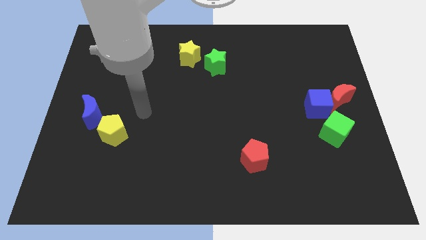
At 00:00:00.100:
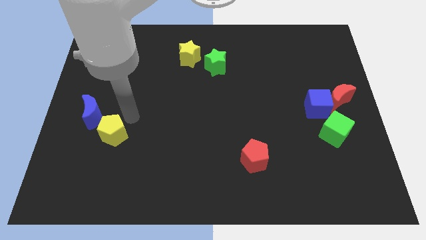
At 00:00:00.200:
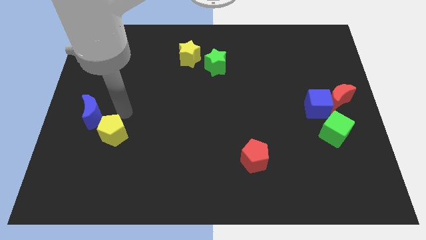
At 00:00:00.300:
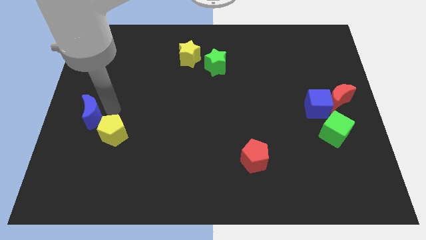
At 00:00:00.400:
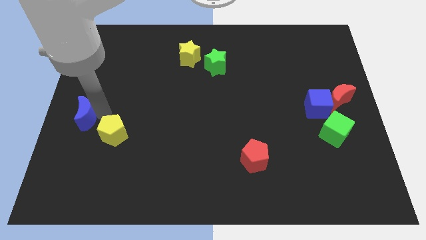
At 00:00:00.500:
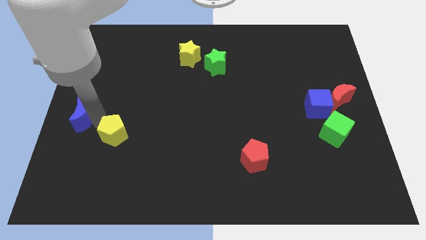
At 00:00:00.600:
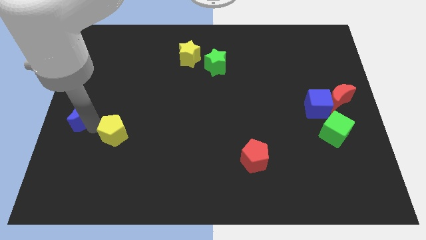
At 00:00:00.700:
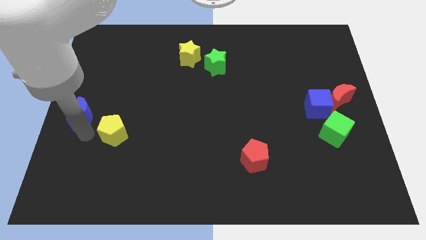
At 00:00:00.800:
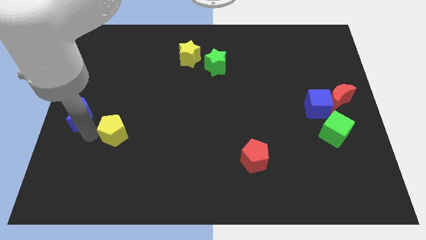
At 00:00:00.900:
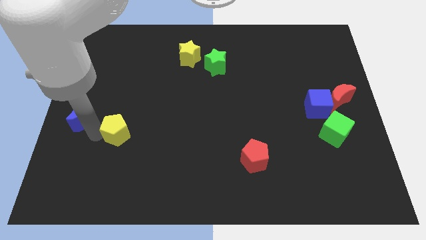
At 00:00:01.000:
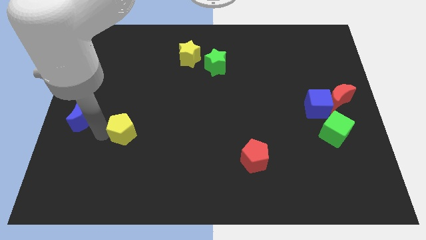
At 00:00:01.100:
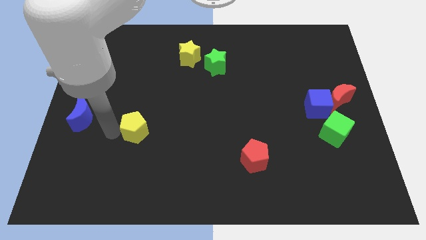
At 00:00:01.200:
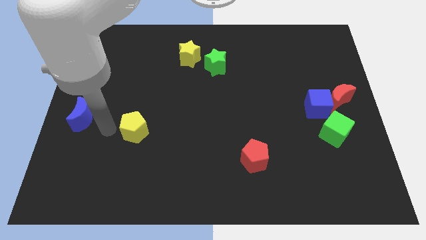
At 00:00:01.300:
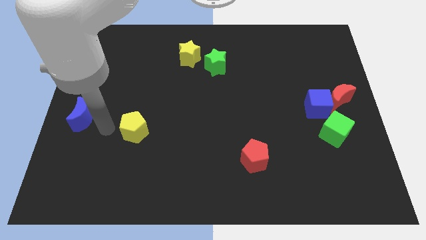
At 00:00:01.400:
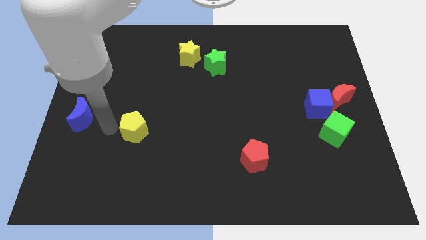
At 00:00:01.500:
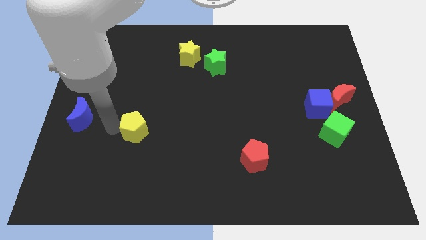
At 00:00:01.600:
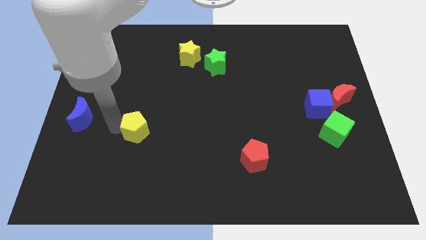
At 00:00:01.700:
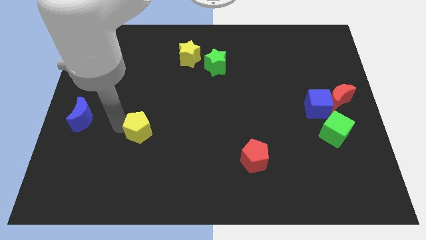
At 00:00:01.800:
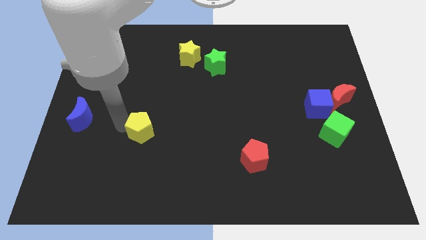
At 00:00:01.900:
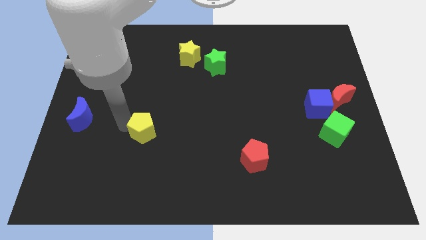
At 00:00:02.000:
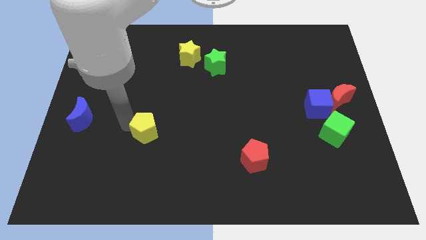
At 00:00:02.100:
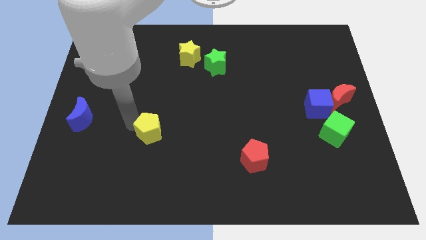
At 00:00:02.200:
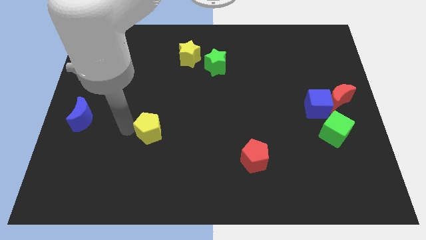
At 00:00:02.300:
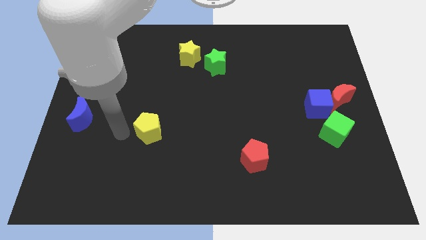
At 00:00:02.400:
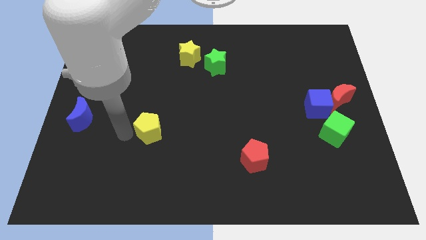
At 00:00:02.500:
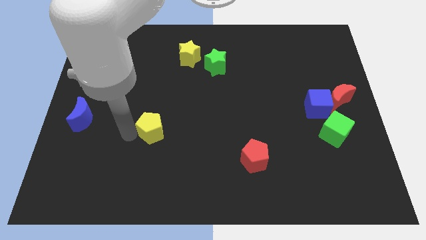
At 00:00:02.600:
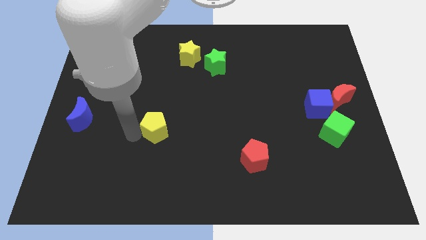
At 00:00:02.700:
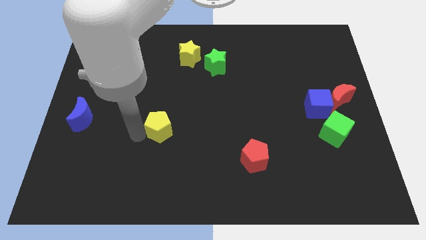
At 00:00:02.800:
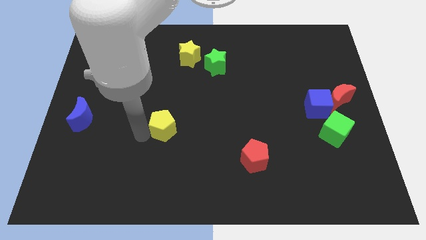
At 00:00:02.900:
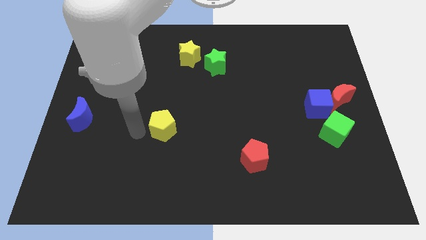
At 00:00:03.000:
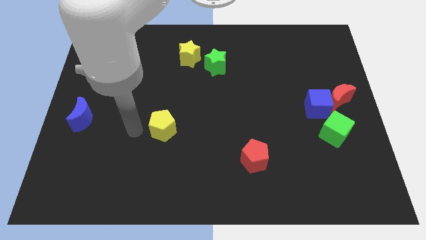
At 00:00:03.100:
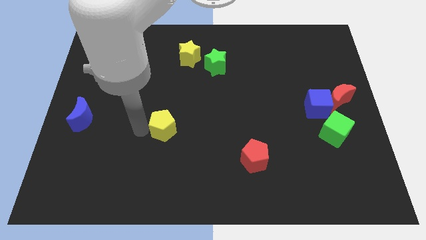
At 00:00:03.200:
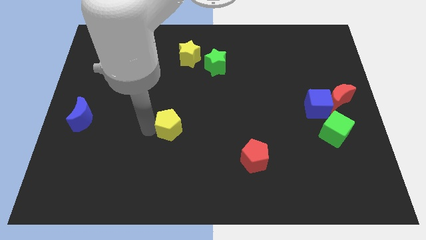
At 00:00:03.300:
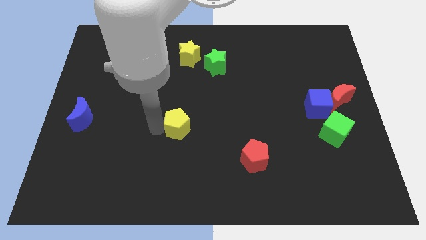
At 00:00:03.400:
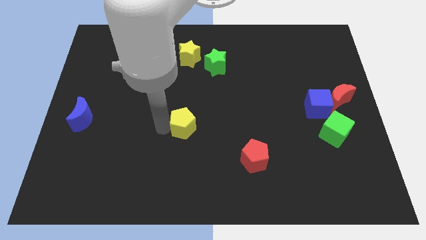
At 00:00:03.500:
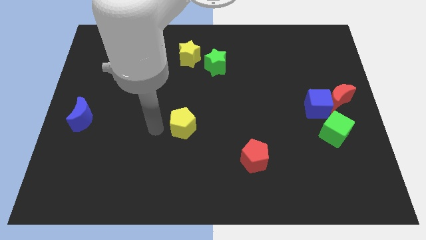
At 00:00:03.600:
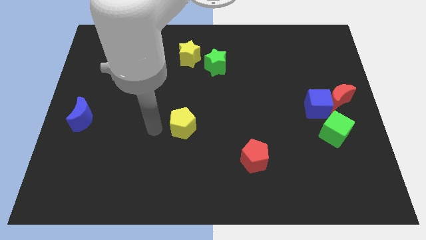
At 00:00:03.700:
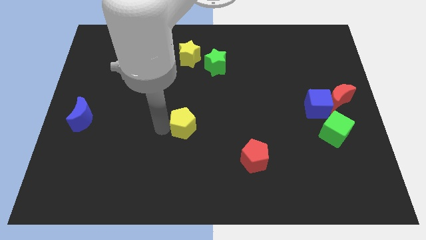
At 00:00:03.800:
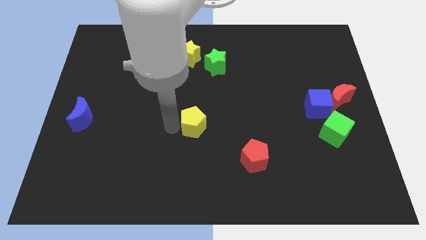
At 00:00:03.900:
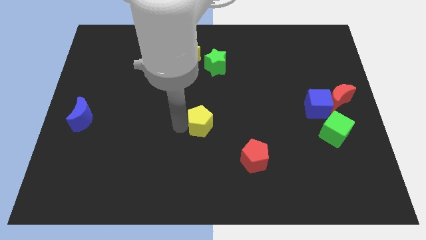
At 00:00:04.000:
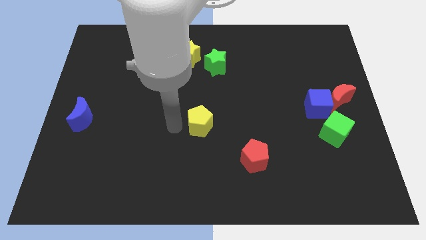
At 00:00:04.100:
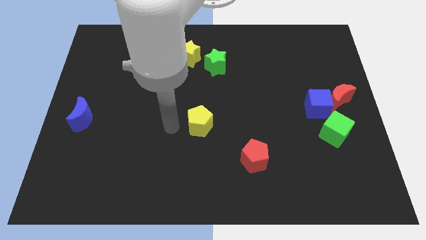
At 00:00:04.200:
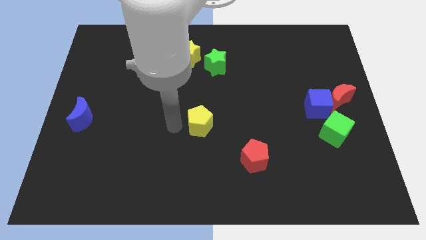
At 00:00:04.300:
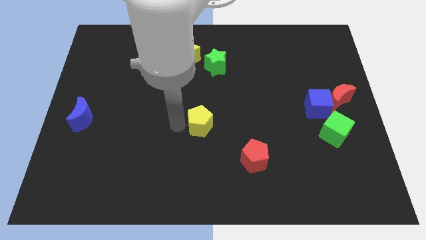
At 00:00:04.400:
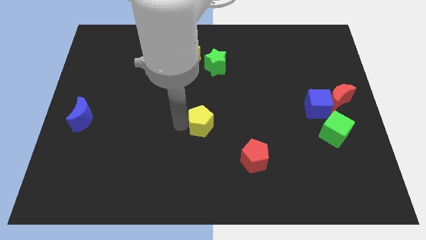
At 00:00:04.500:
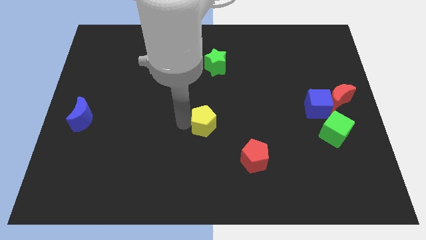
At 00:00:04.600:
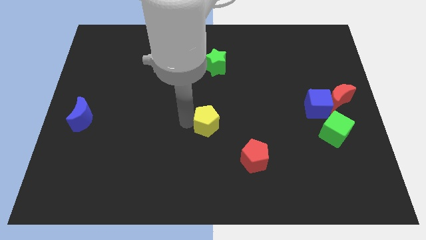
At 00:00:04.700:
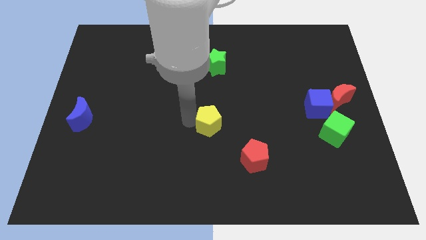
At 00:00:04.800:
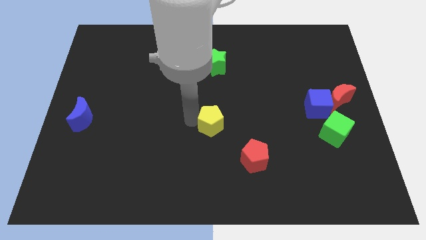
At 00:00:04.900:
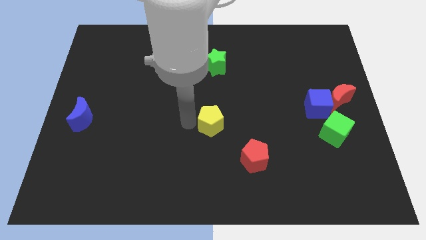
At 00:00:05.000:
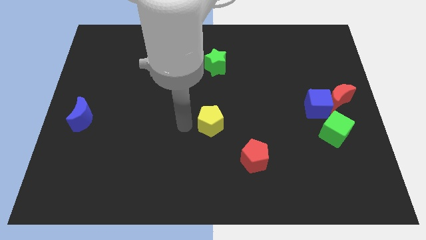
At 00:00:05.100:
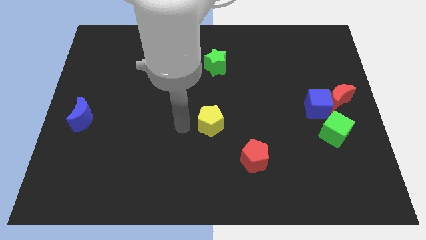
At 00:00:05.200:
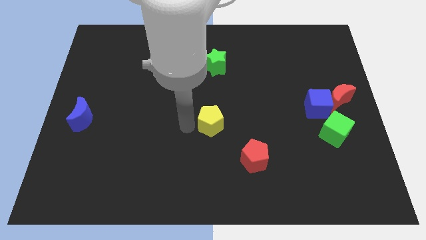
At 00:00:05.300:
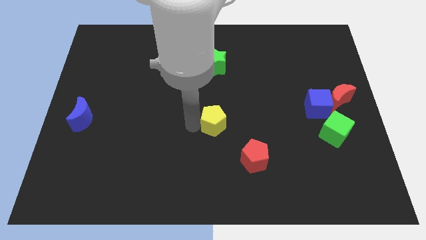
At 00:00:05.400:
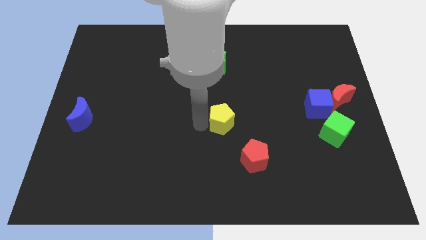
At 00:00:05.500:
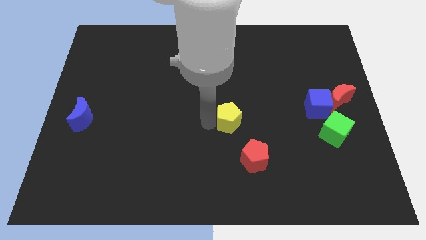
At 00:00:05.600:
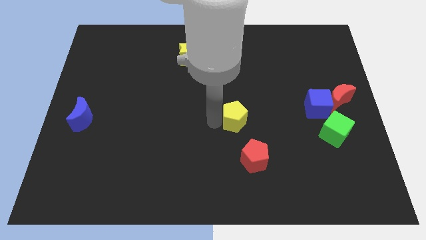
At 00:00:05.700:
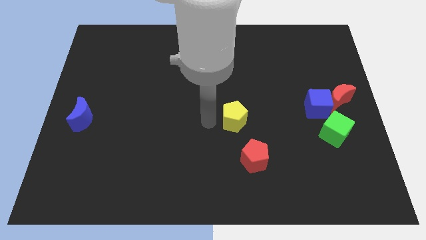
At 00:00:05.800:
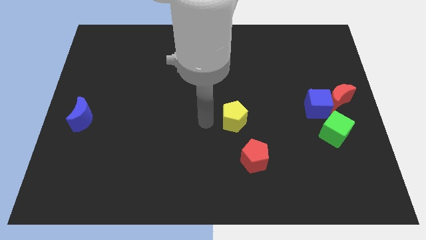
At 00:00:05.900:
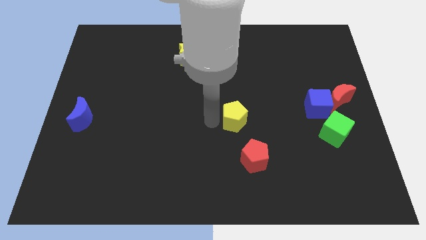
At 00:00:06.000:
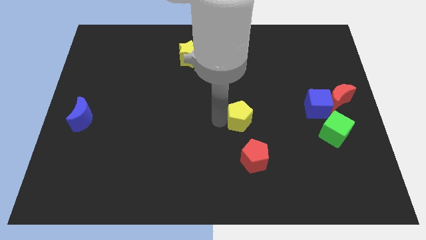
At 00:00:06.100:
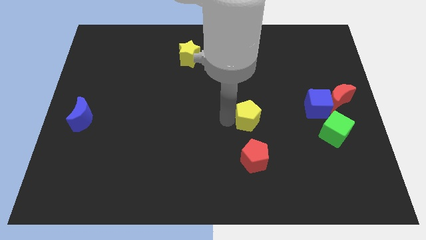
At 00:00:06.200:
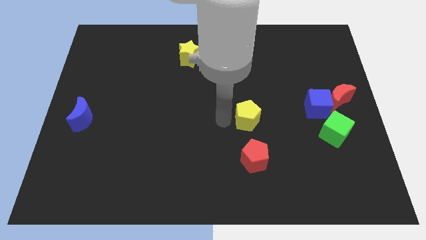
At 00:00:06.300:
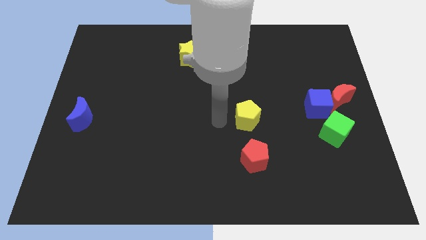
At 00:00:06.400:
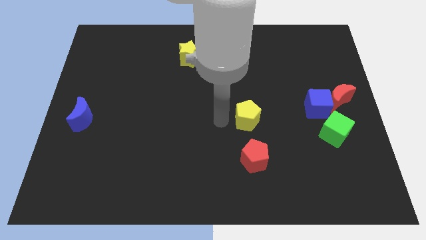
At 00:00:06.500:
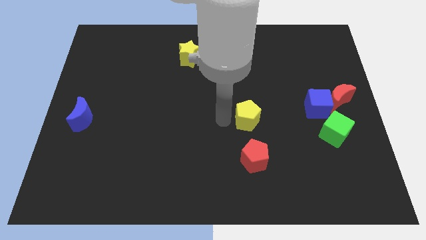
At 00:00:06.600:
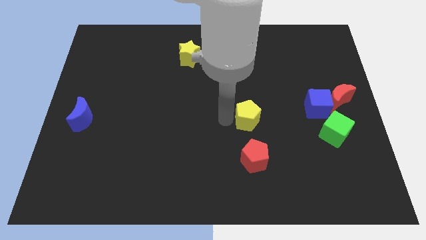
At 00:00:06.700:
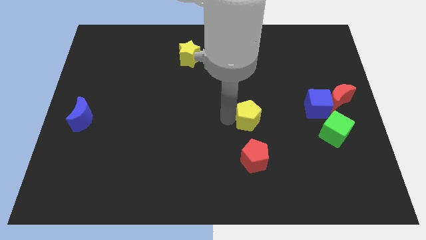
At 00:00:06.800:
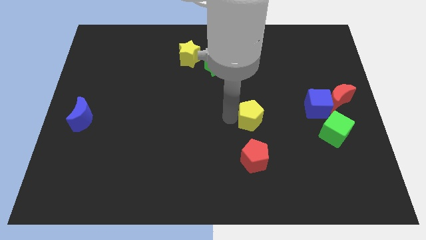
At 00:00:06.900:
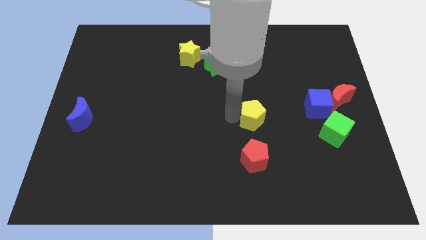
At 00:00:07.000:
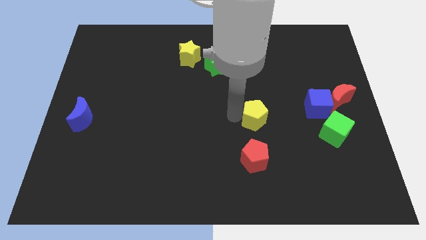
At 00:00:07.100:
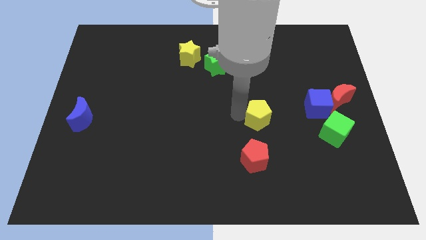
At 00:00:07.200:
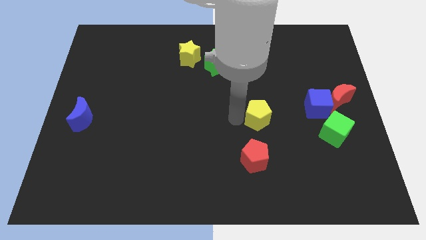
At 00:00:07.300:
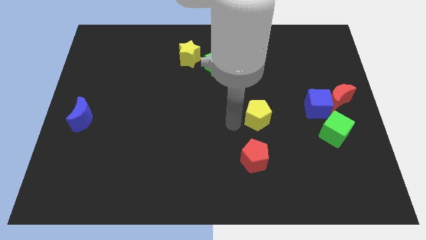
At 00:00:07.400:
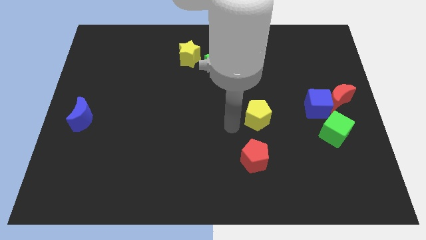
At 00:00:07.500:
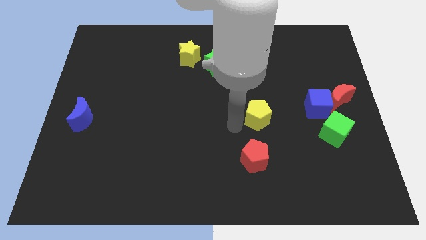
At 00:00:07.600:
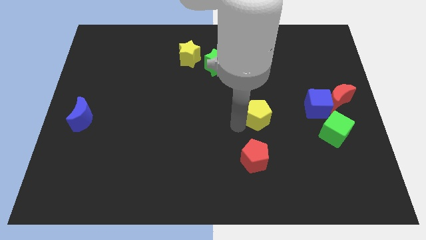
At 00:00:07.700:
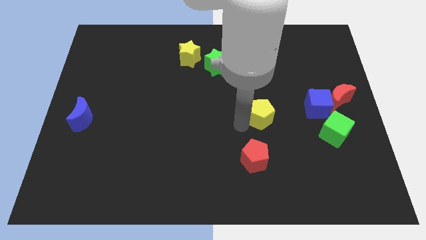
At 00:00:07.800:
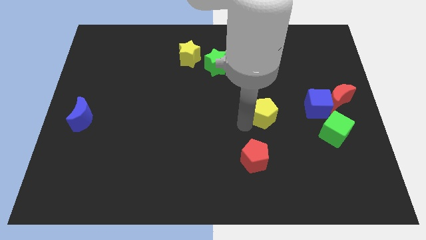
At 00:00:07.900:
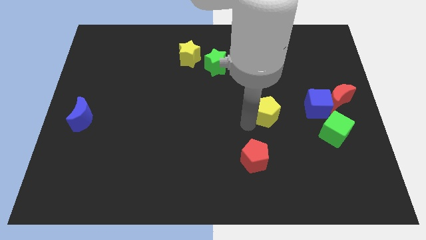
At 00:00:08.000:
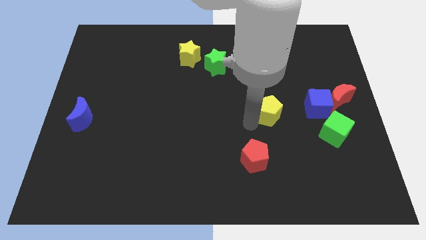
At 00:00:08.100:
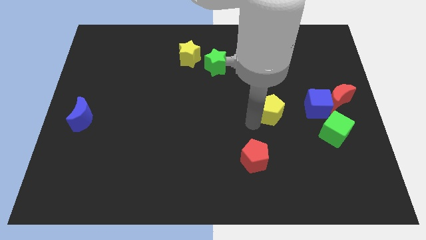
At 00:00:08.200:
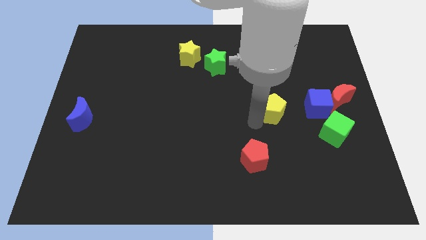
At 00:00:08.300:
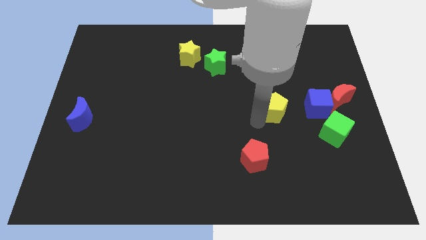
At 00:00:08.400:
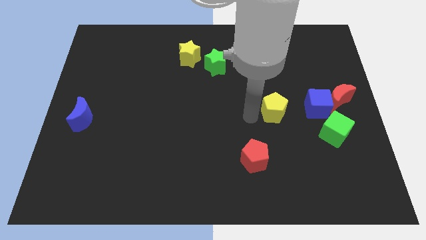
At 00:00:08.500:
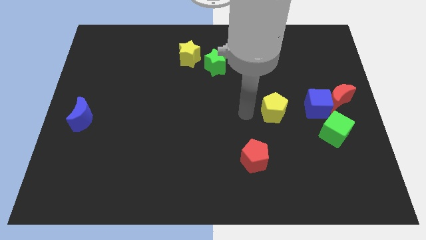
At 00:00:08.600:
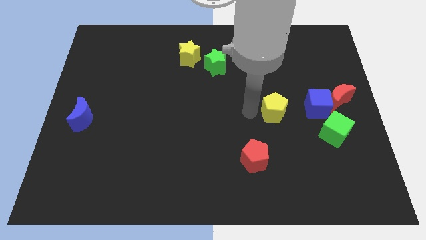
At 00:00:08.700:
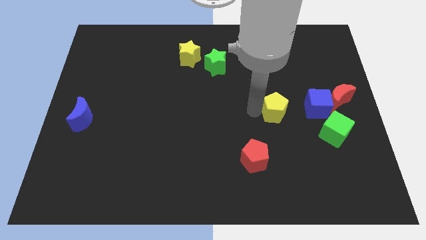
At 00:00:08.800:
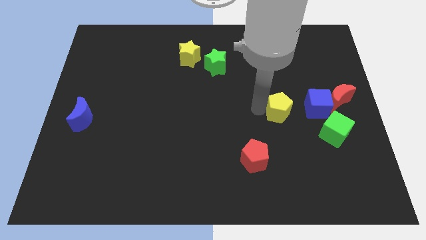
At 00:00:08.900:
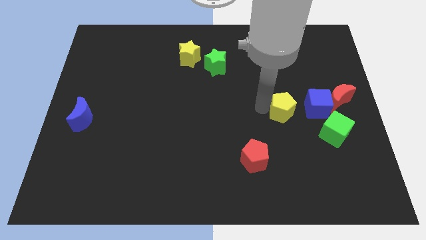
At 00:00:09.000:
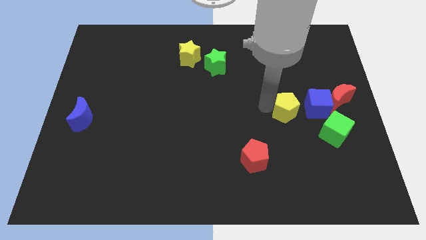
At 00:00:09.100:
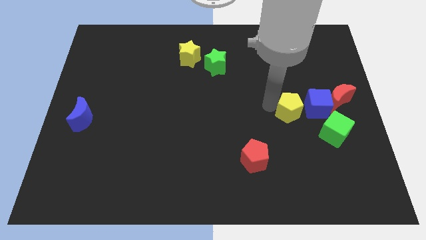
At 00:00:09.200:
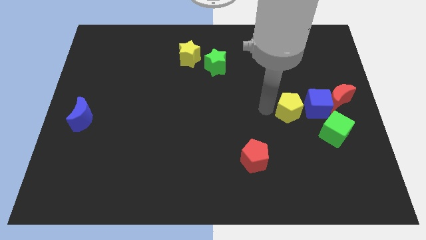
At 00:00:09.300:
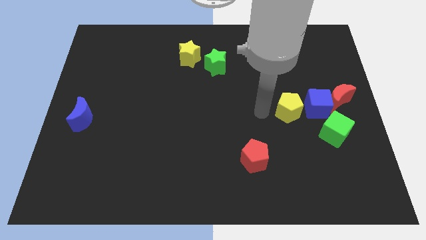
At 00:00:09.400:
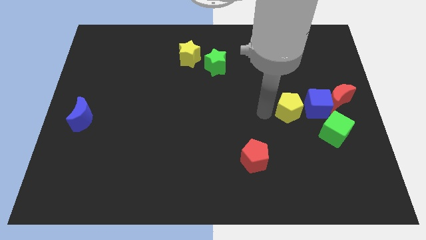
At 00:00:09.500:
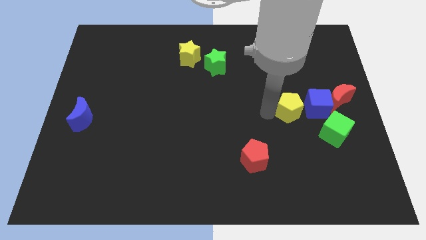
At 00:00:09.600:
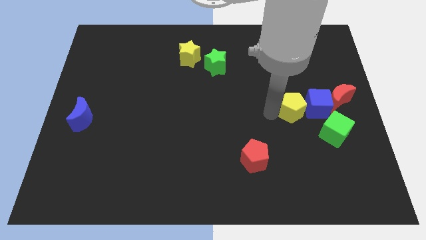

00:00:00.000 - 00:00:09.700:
slide the yellow pentagon towards the blue cube
